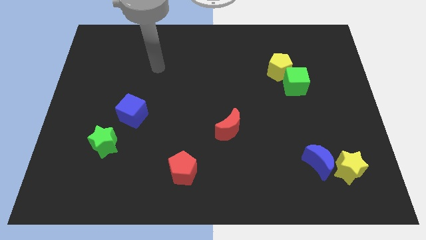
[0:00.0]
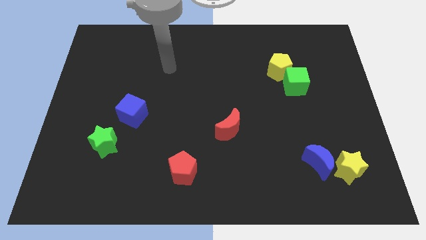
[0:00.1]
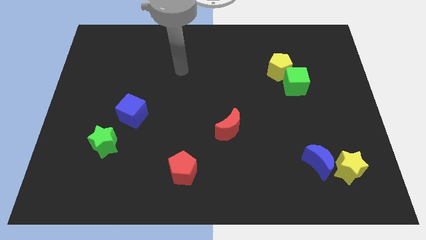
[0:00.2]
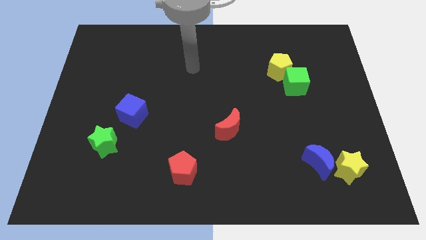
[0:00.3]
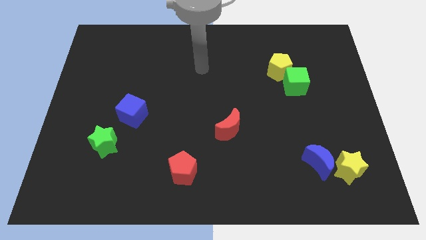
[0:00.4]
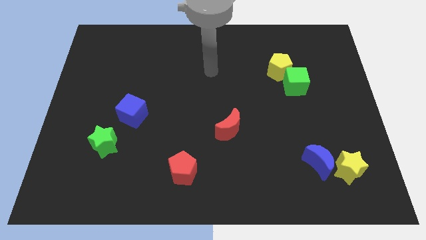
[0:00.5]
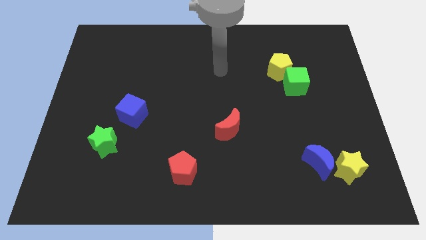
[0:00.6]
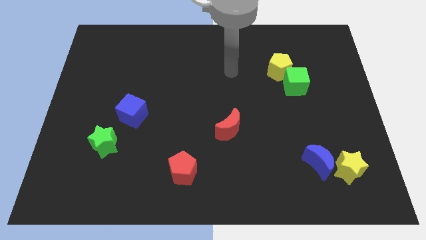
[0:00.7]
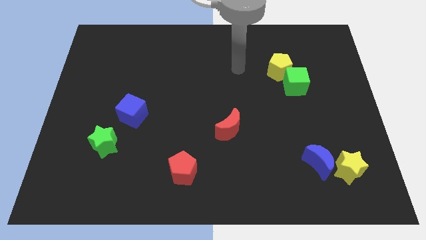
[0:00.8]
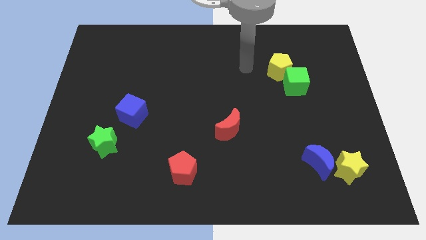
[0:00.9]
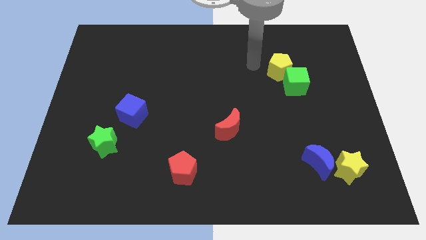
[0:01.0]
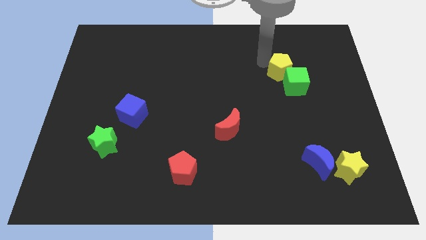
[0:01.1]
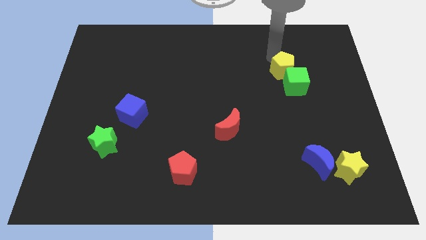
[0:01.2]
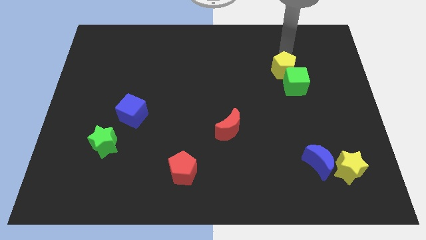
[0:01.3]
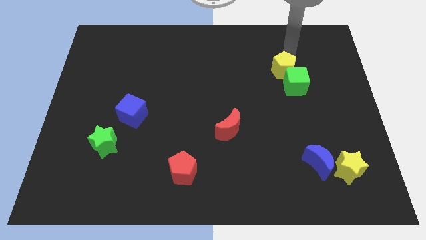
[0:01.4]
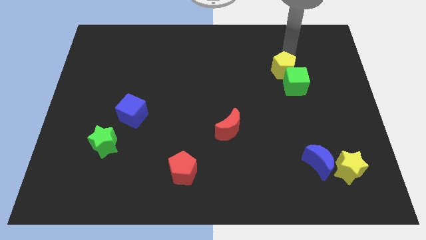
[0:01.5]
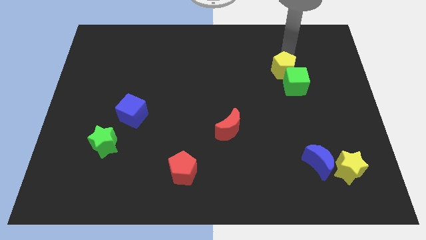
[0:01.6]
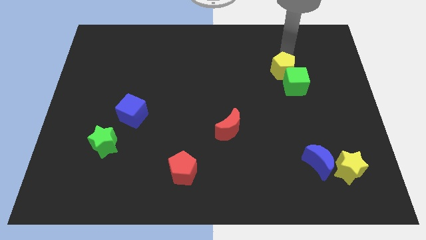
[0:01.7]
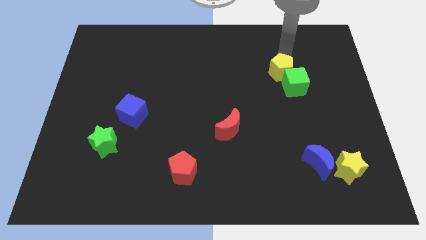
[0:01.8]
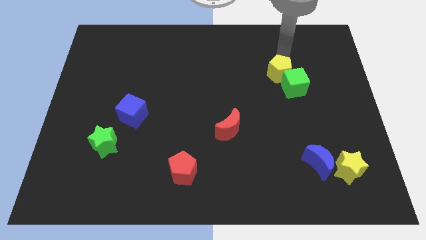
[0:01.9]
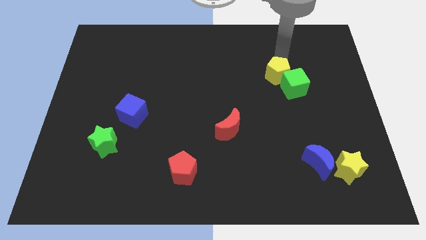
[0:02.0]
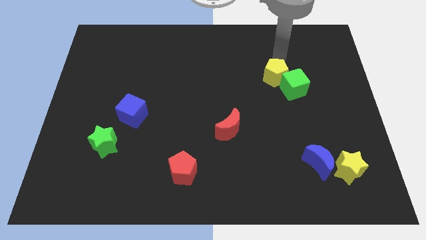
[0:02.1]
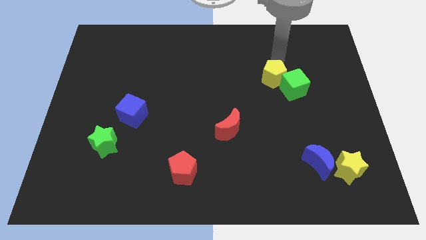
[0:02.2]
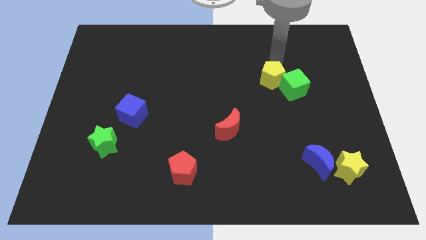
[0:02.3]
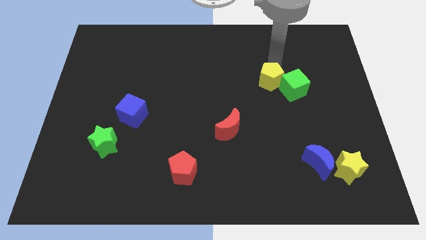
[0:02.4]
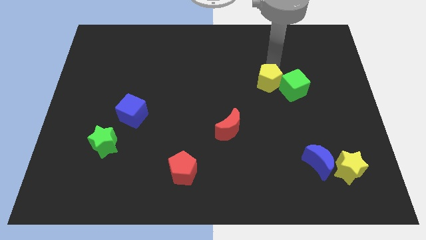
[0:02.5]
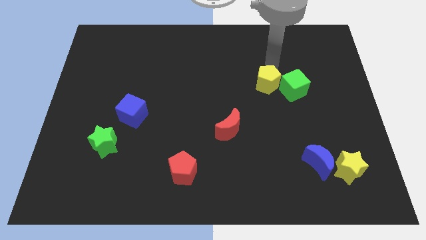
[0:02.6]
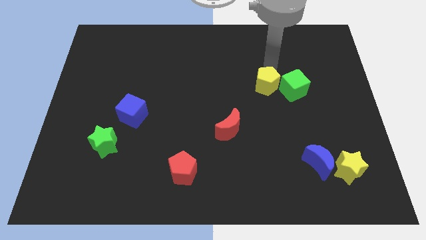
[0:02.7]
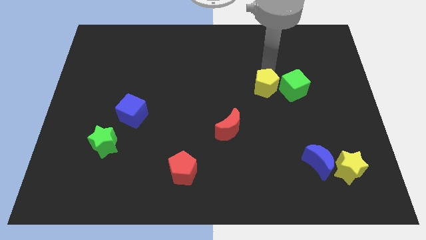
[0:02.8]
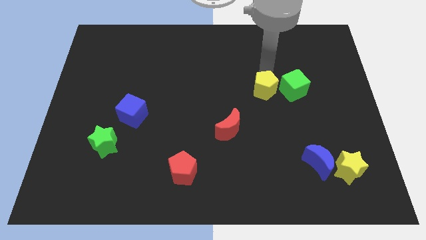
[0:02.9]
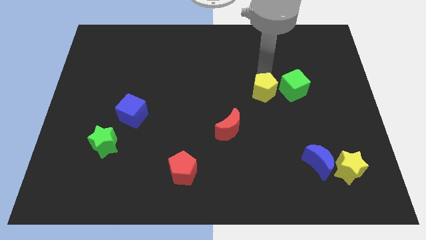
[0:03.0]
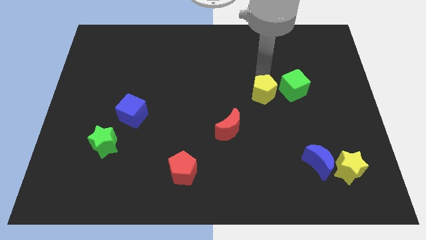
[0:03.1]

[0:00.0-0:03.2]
push the yellow pentagon down somewhat

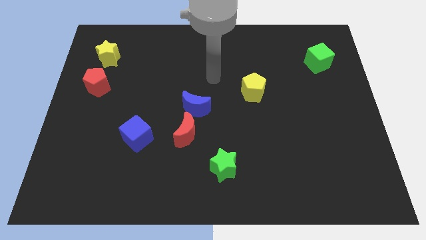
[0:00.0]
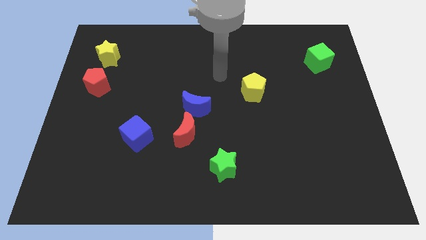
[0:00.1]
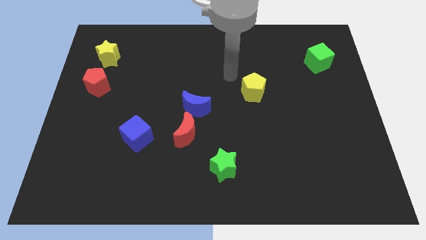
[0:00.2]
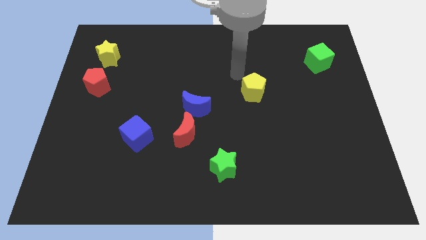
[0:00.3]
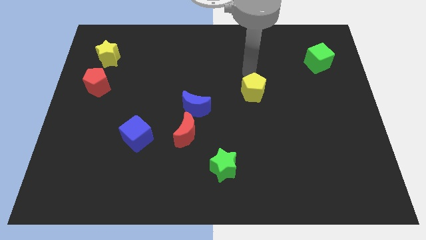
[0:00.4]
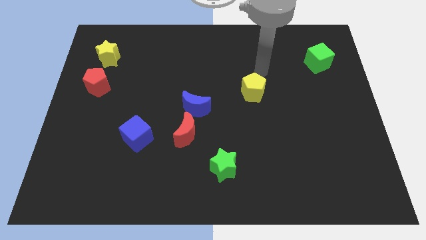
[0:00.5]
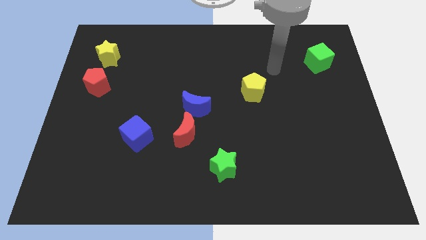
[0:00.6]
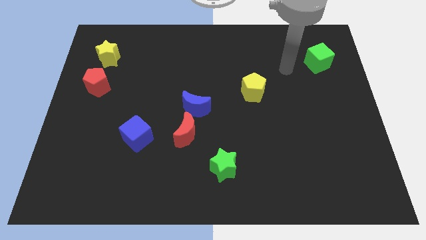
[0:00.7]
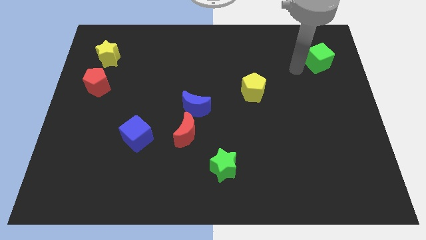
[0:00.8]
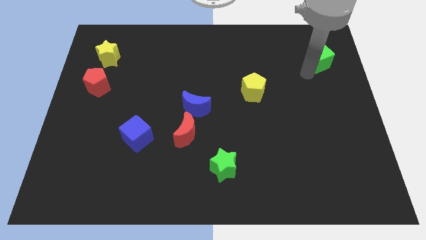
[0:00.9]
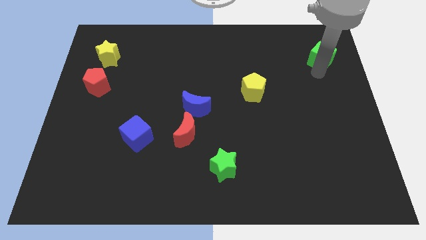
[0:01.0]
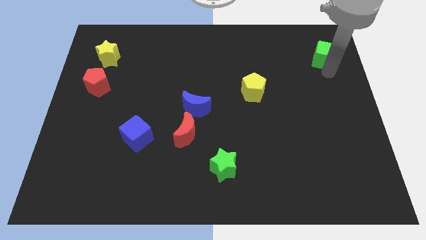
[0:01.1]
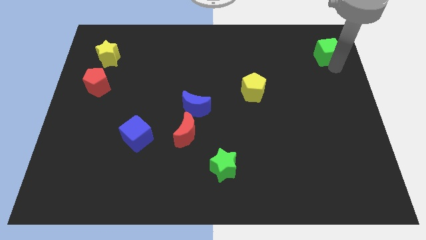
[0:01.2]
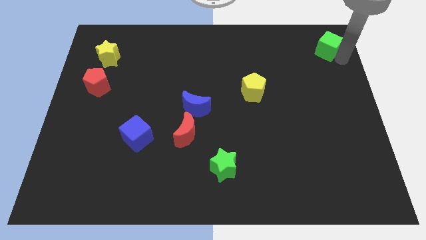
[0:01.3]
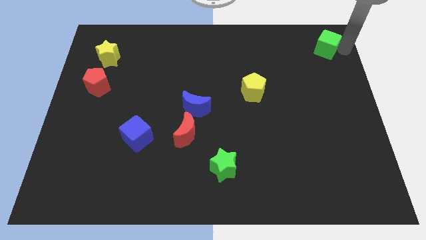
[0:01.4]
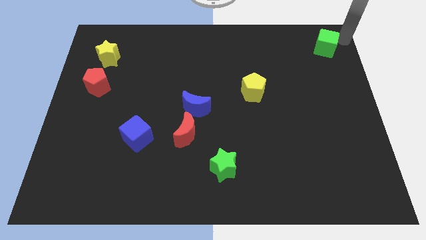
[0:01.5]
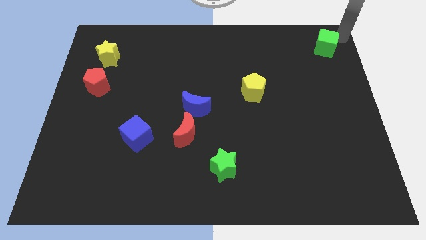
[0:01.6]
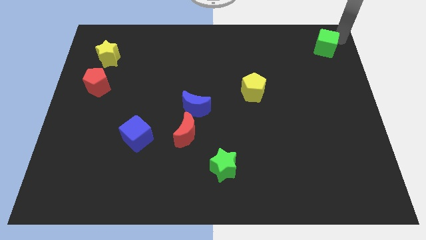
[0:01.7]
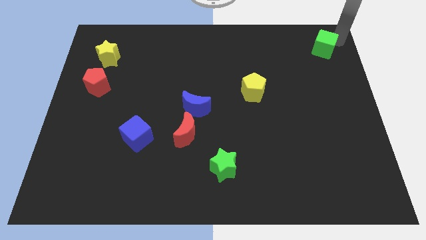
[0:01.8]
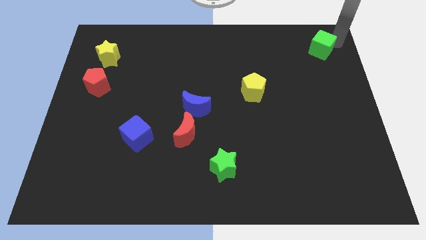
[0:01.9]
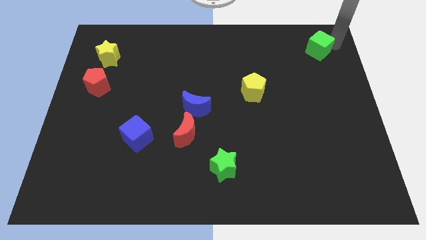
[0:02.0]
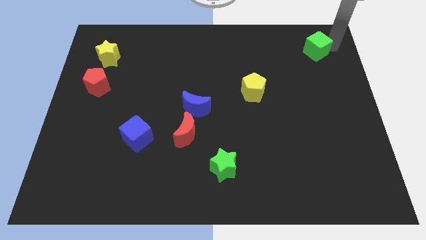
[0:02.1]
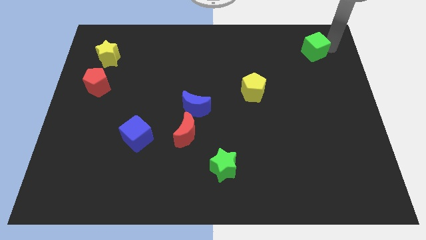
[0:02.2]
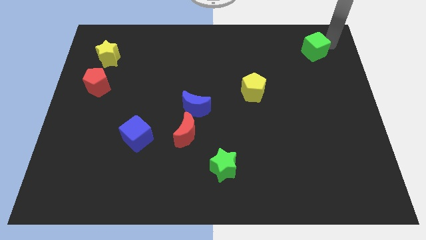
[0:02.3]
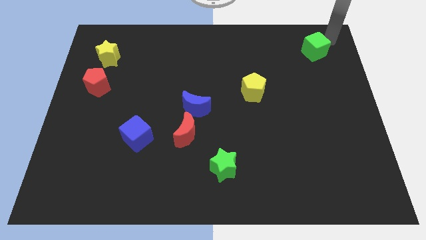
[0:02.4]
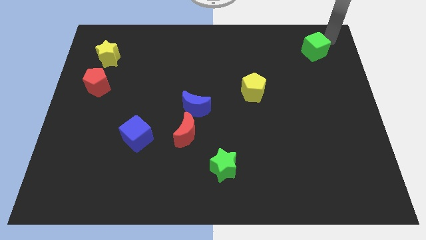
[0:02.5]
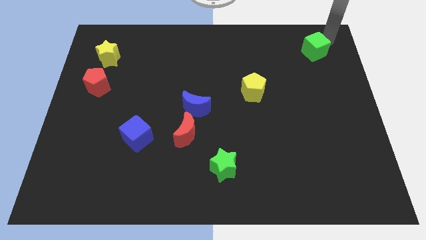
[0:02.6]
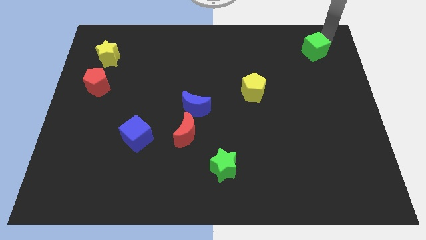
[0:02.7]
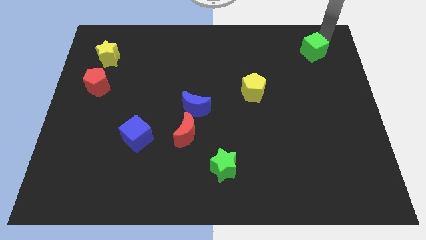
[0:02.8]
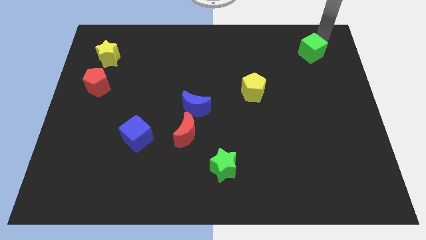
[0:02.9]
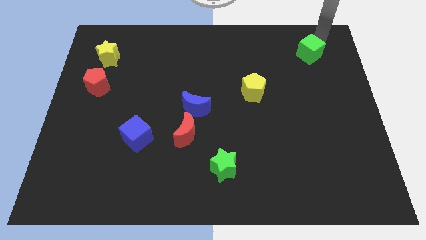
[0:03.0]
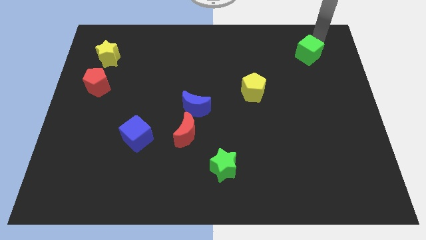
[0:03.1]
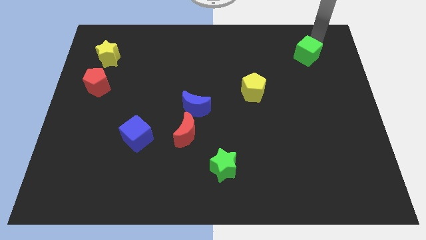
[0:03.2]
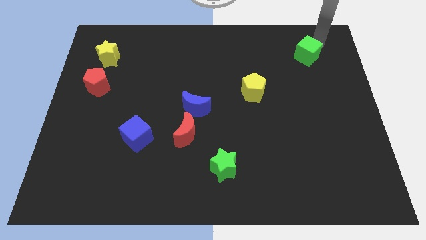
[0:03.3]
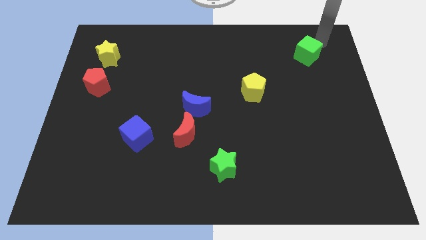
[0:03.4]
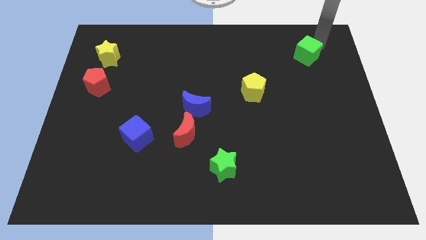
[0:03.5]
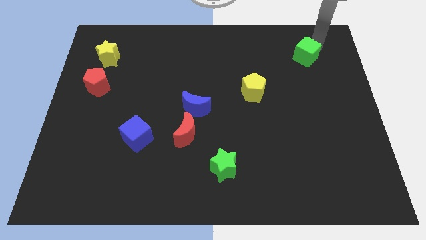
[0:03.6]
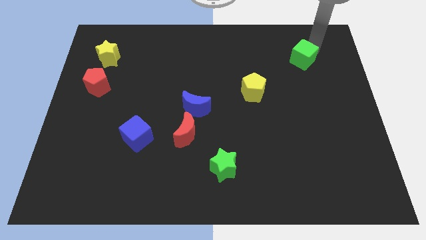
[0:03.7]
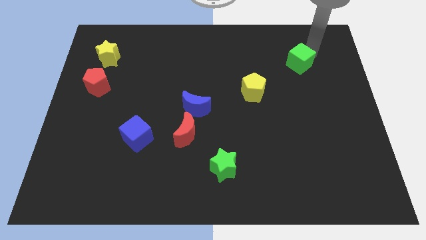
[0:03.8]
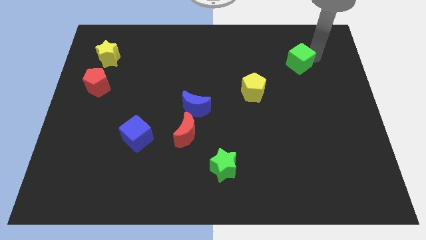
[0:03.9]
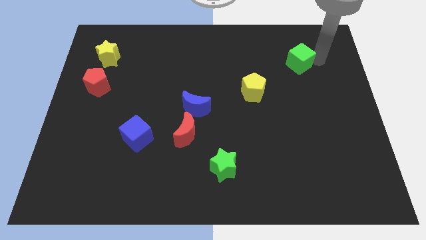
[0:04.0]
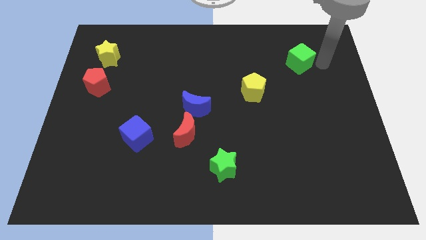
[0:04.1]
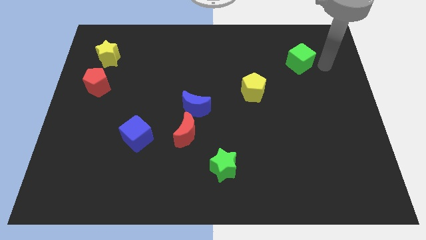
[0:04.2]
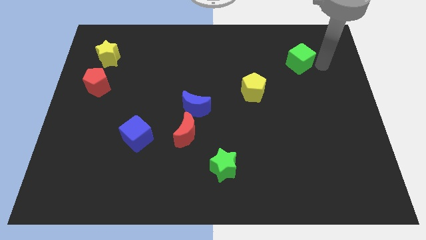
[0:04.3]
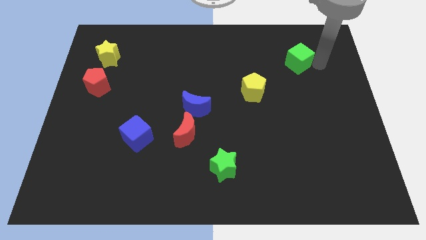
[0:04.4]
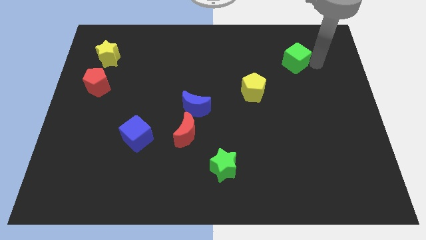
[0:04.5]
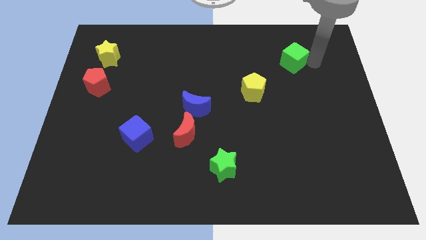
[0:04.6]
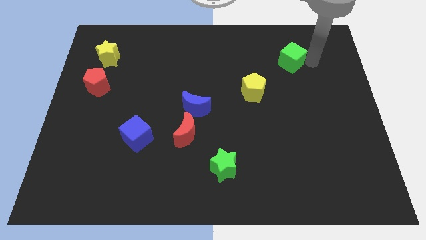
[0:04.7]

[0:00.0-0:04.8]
slide the green cube to the left a little

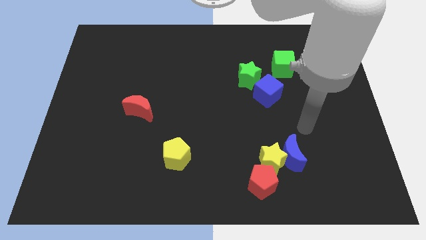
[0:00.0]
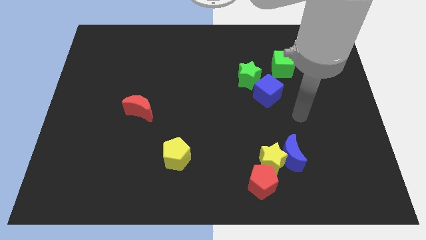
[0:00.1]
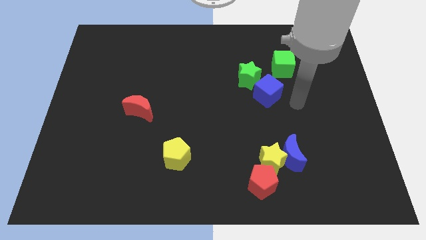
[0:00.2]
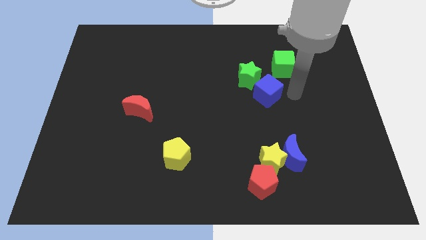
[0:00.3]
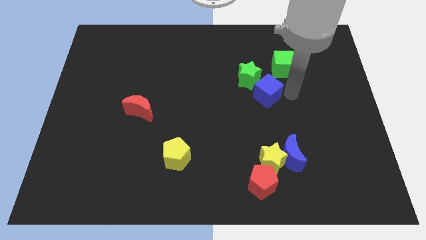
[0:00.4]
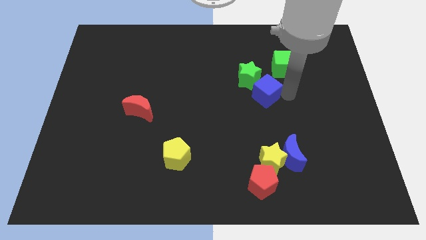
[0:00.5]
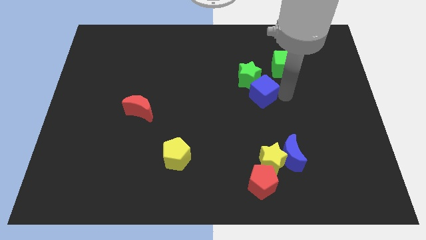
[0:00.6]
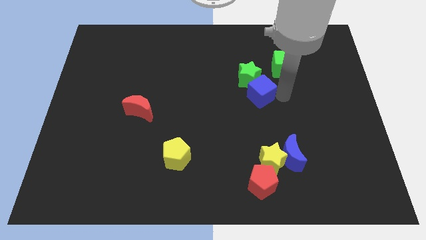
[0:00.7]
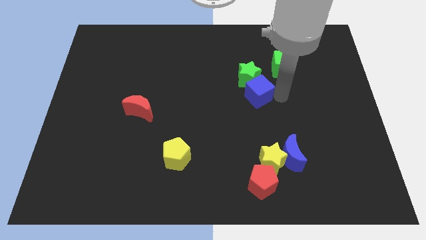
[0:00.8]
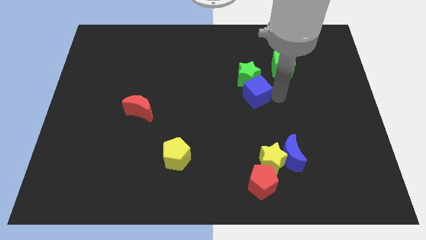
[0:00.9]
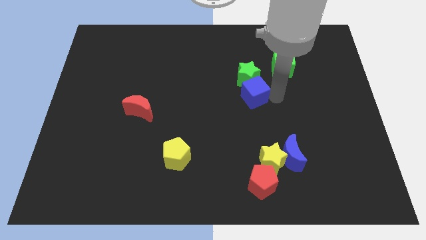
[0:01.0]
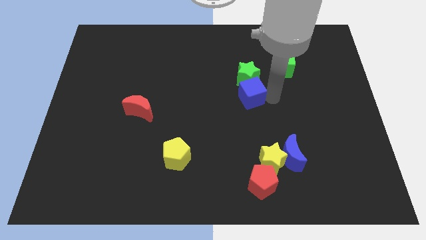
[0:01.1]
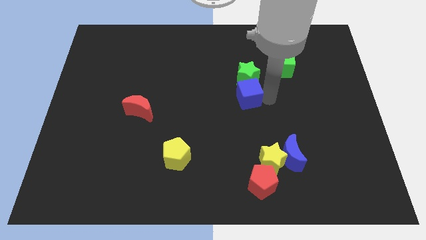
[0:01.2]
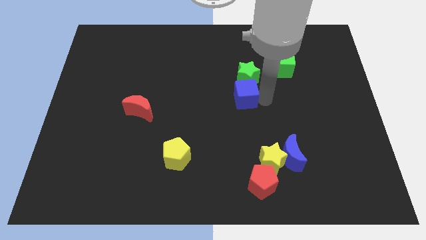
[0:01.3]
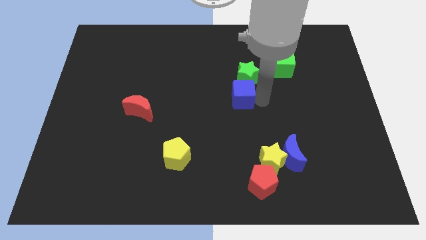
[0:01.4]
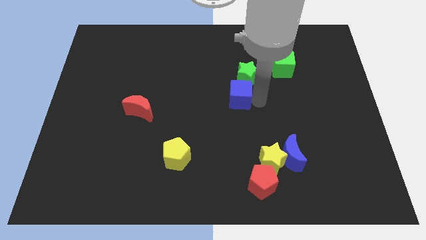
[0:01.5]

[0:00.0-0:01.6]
slide the blue cube left a little
